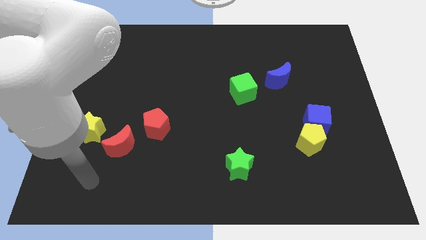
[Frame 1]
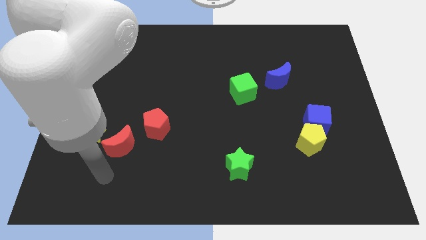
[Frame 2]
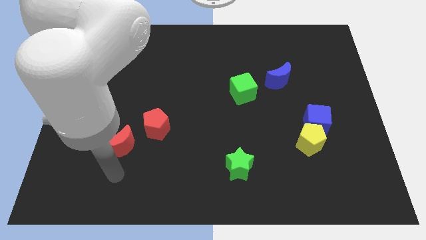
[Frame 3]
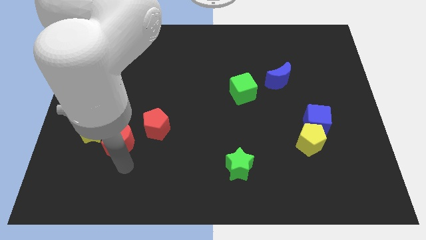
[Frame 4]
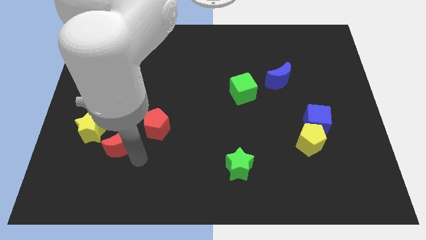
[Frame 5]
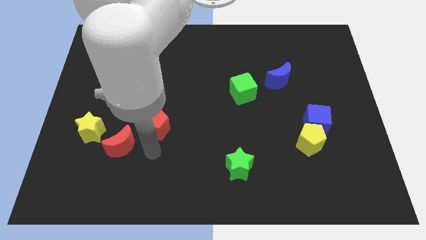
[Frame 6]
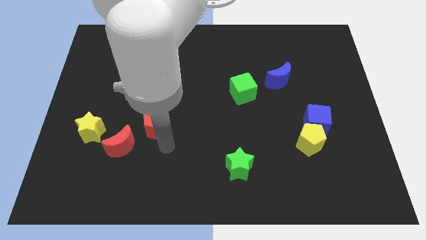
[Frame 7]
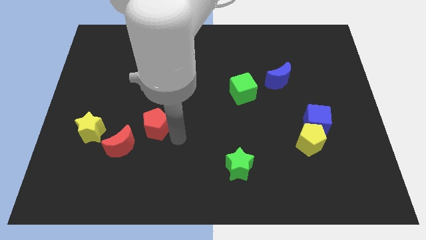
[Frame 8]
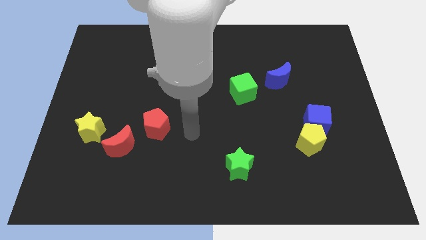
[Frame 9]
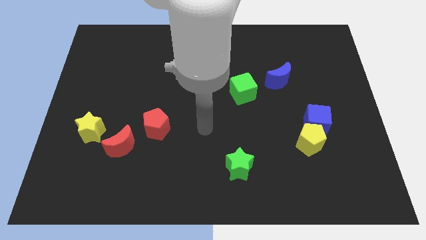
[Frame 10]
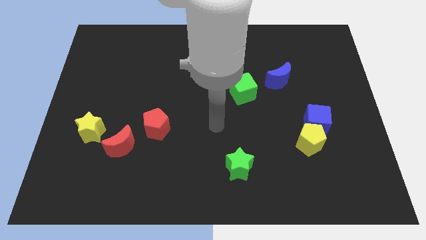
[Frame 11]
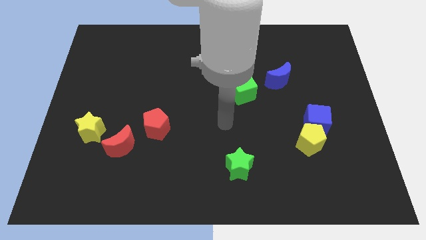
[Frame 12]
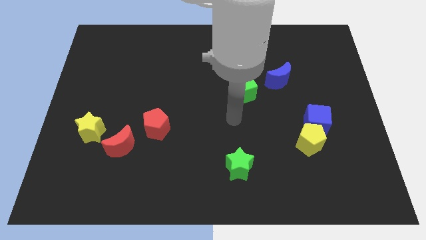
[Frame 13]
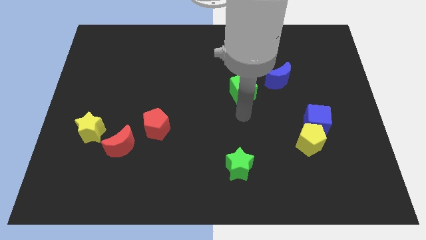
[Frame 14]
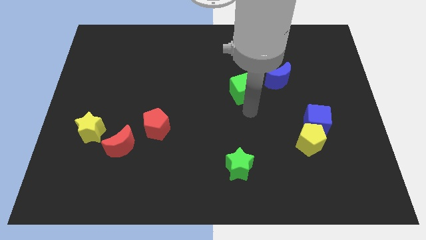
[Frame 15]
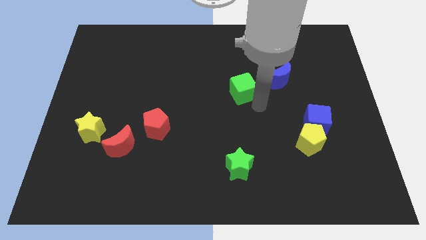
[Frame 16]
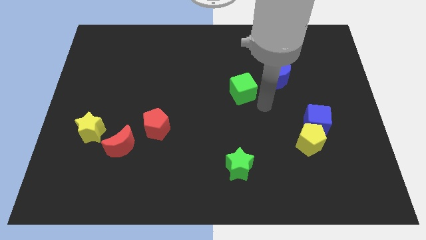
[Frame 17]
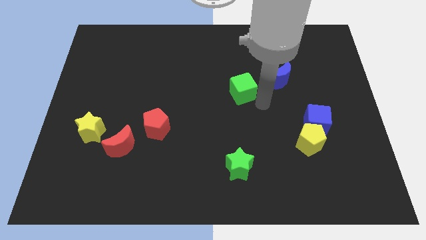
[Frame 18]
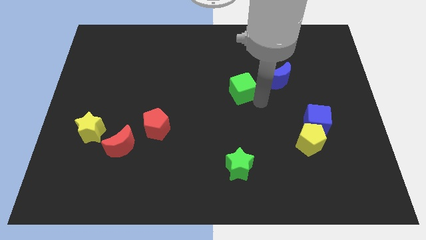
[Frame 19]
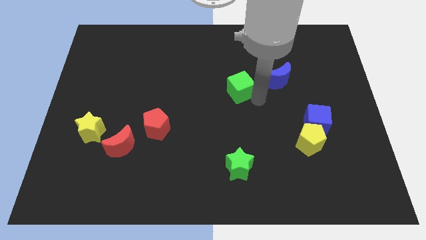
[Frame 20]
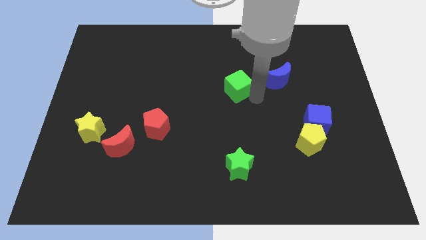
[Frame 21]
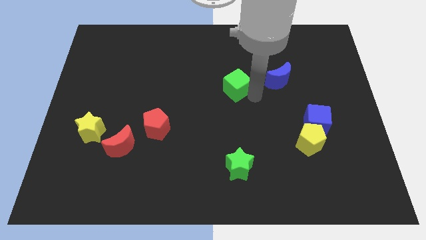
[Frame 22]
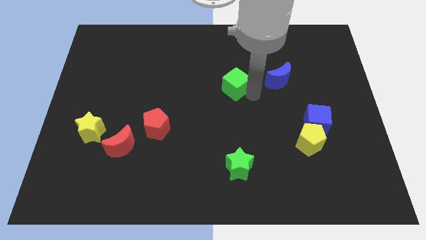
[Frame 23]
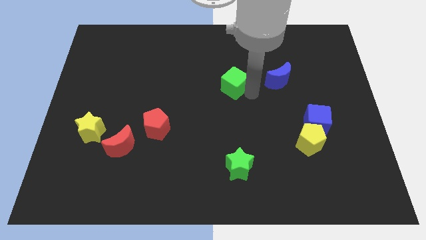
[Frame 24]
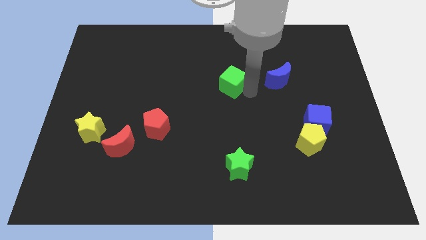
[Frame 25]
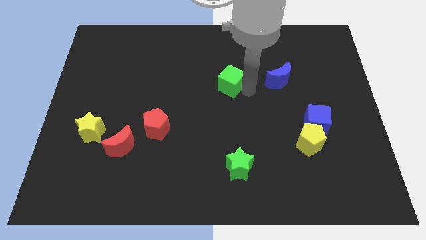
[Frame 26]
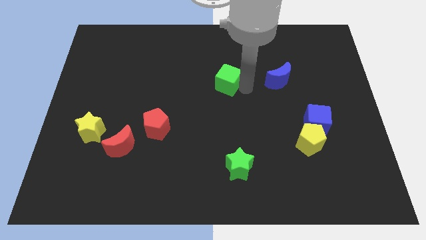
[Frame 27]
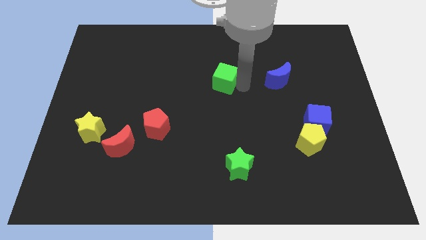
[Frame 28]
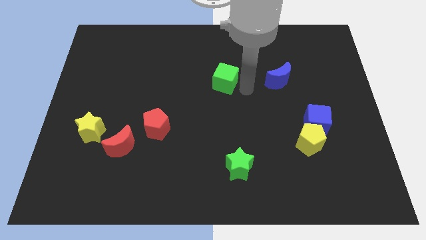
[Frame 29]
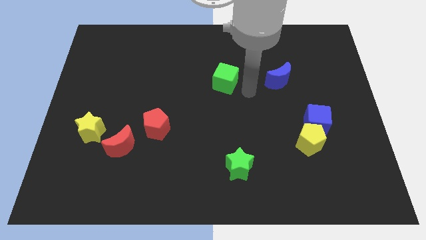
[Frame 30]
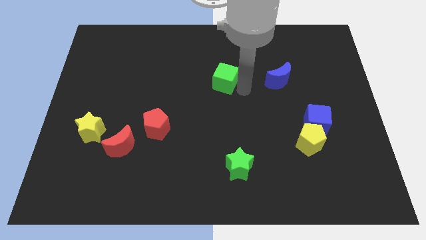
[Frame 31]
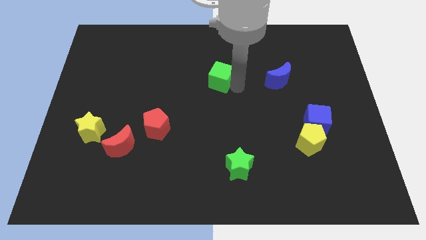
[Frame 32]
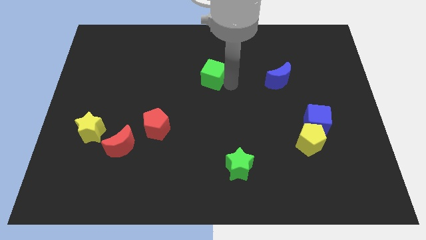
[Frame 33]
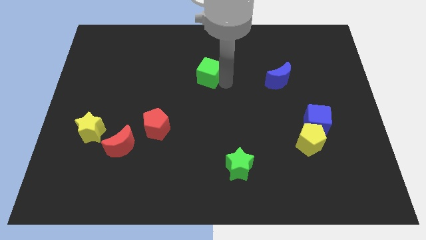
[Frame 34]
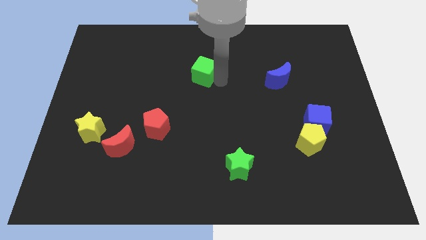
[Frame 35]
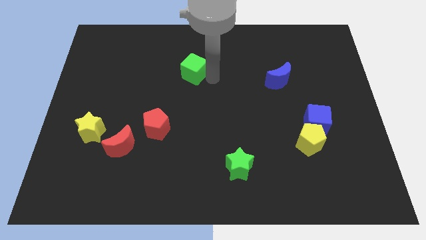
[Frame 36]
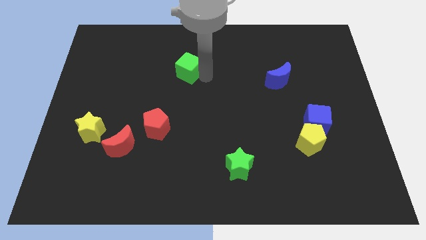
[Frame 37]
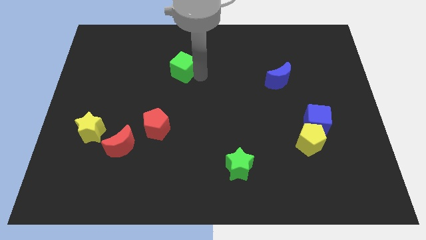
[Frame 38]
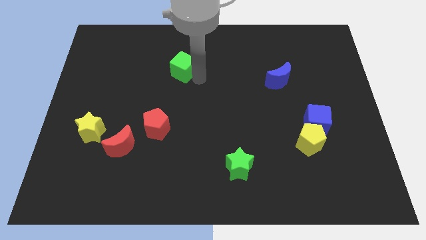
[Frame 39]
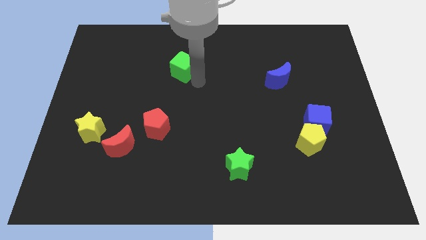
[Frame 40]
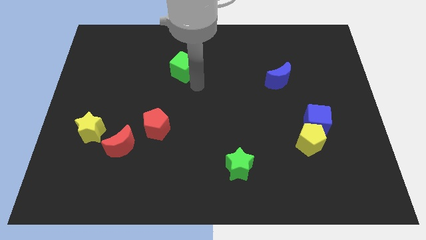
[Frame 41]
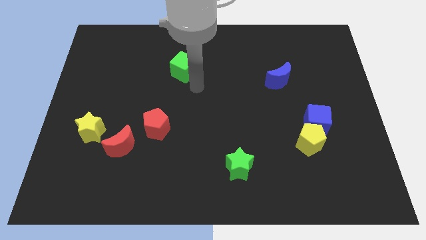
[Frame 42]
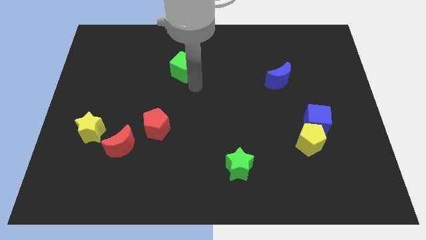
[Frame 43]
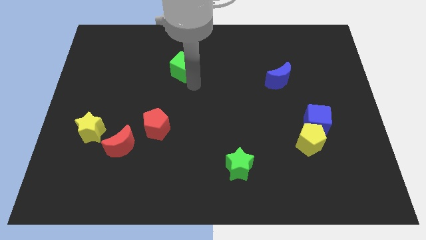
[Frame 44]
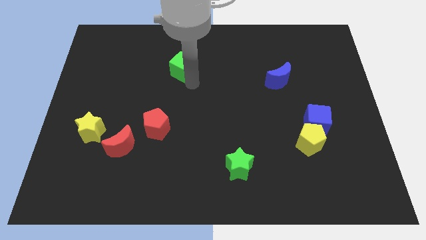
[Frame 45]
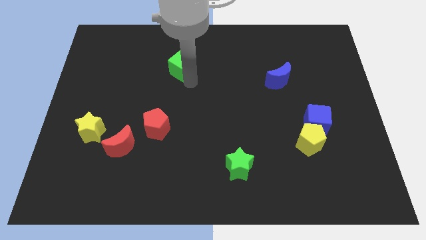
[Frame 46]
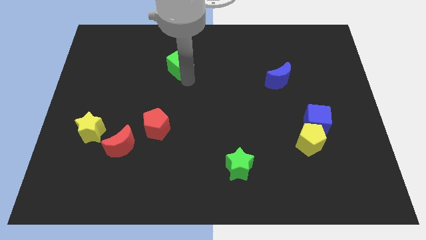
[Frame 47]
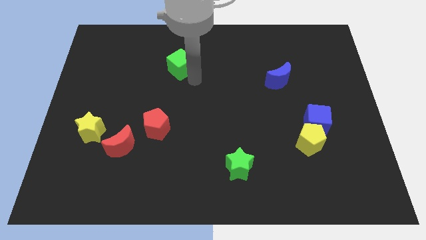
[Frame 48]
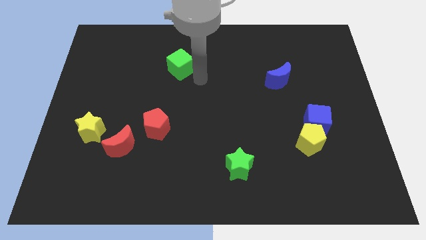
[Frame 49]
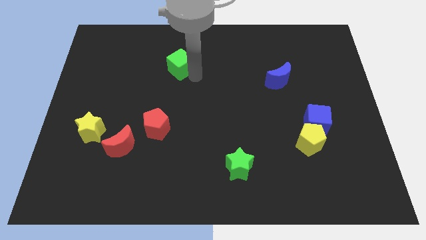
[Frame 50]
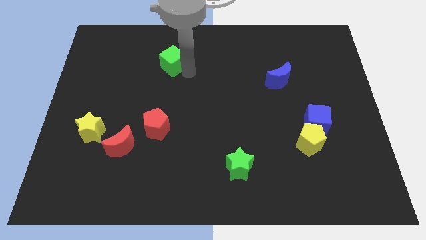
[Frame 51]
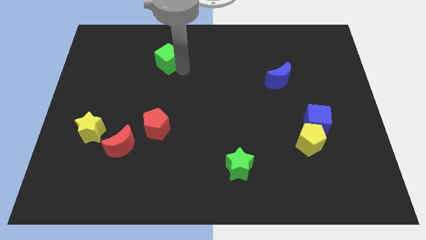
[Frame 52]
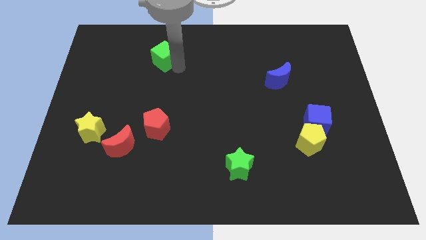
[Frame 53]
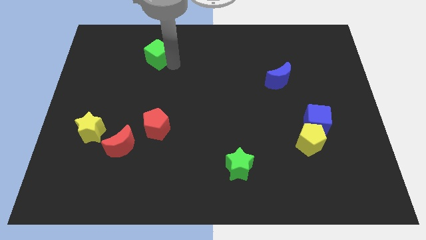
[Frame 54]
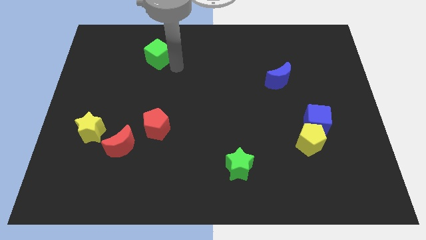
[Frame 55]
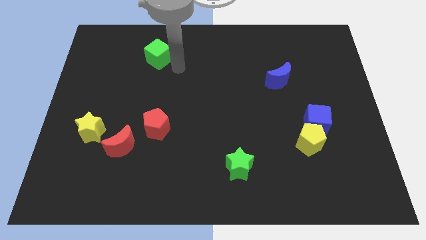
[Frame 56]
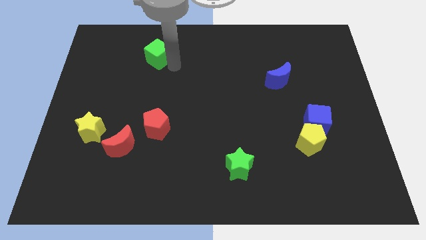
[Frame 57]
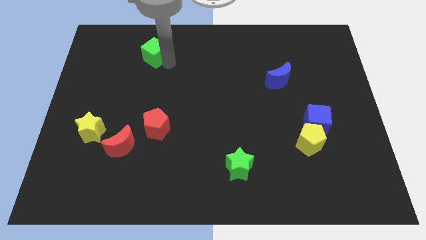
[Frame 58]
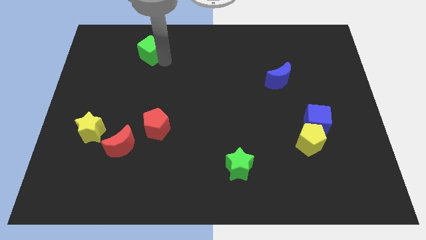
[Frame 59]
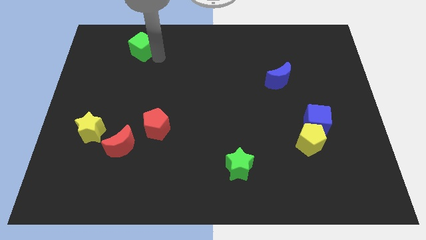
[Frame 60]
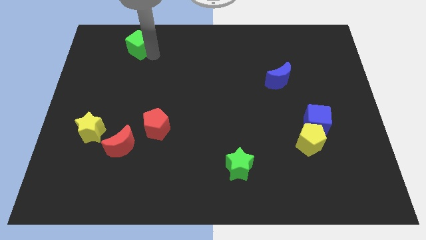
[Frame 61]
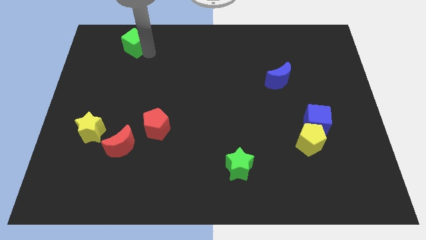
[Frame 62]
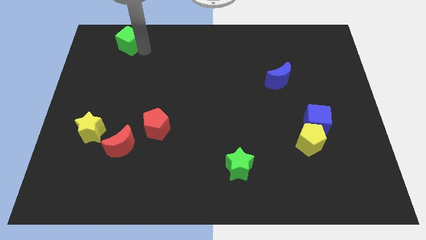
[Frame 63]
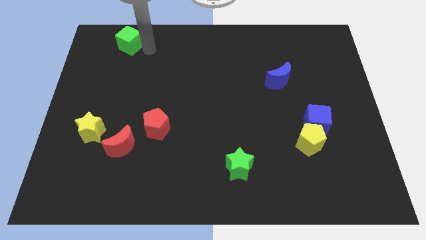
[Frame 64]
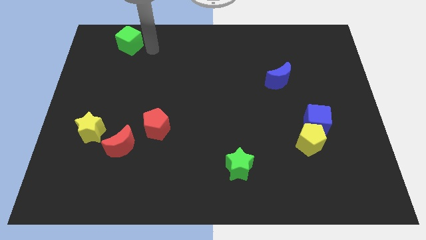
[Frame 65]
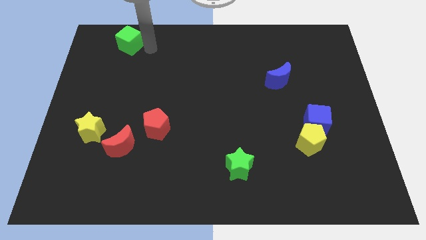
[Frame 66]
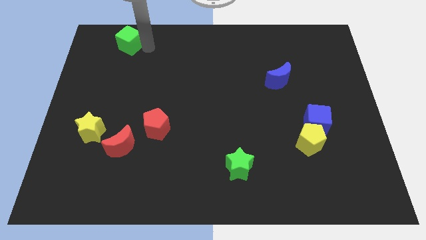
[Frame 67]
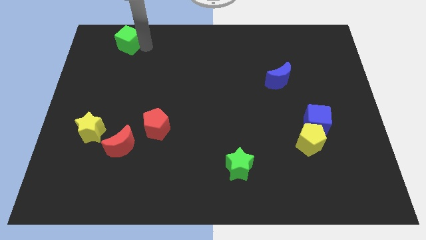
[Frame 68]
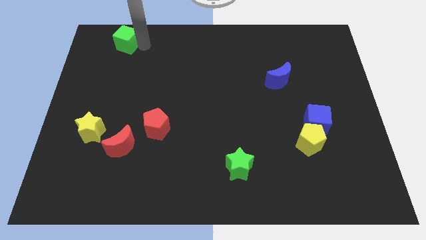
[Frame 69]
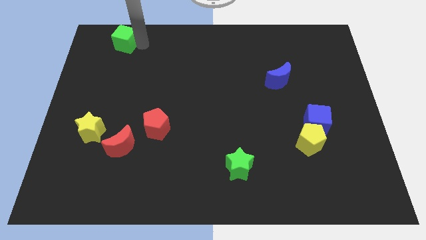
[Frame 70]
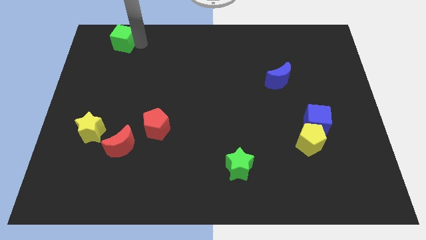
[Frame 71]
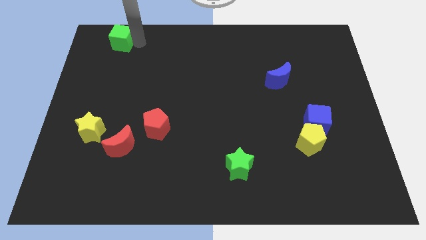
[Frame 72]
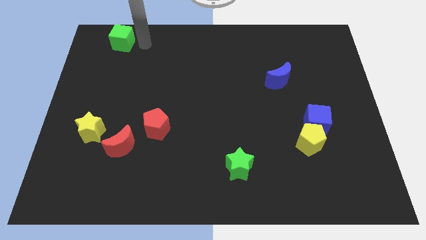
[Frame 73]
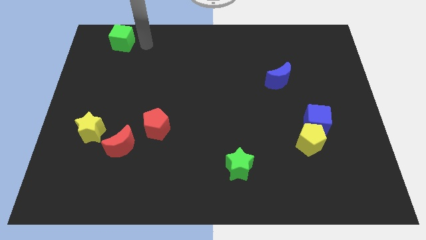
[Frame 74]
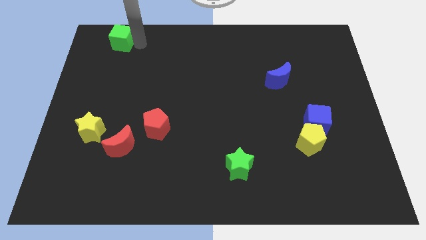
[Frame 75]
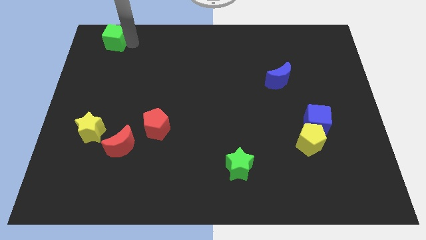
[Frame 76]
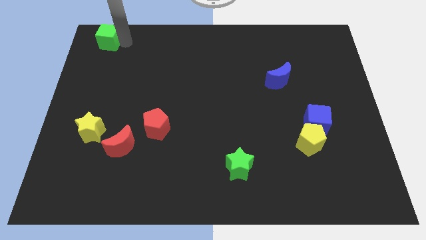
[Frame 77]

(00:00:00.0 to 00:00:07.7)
put the green cube to the top left corner
